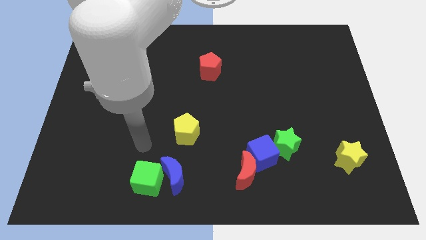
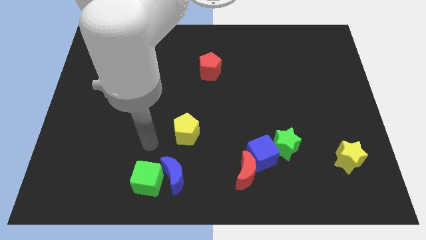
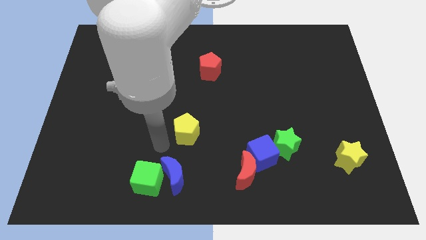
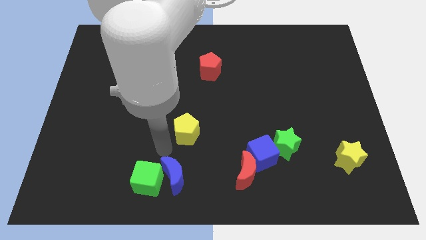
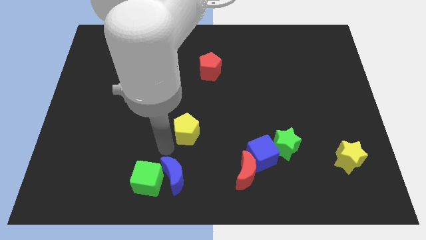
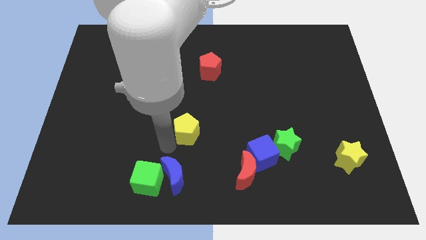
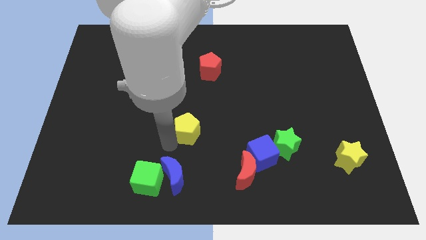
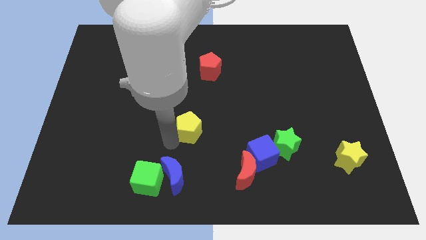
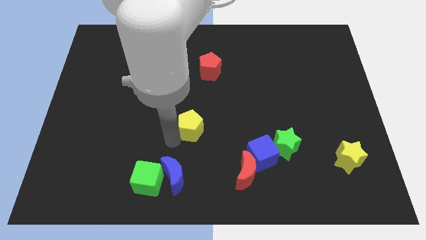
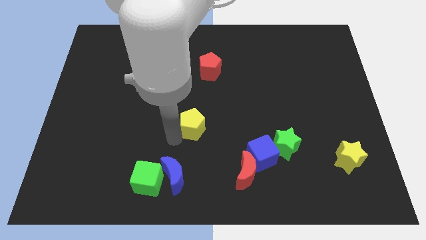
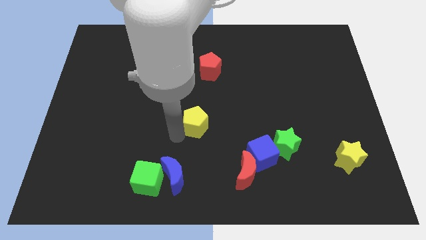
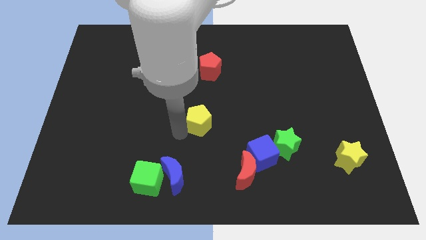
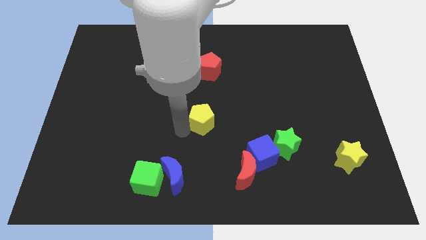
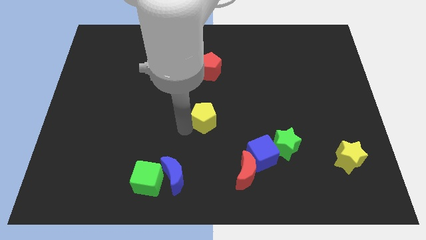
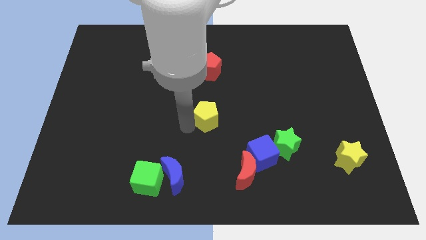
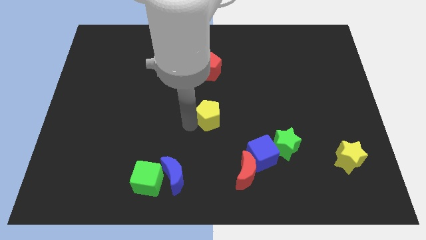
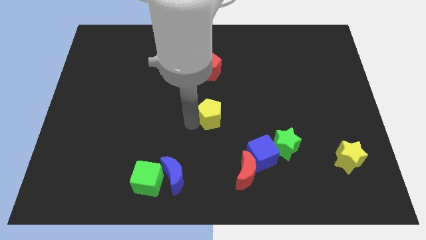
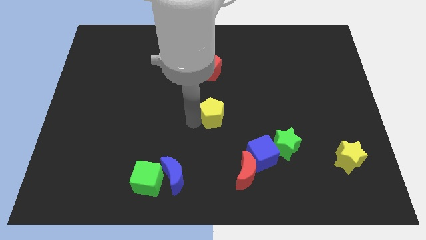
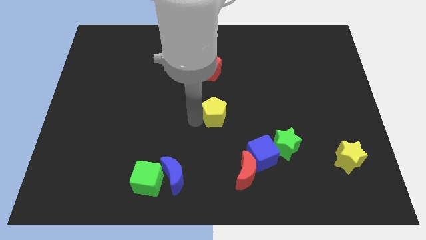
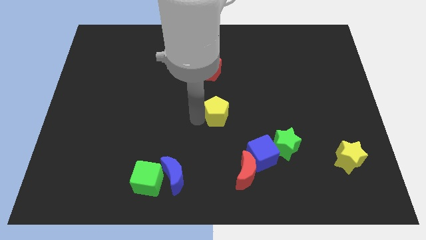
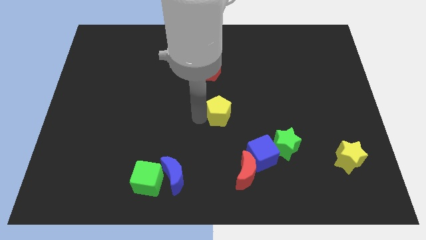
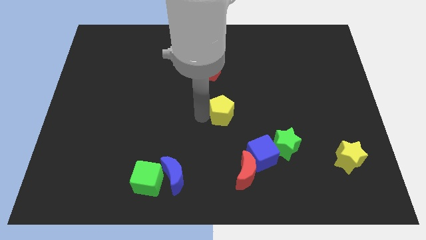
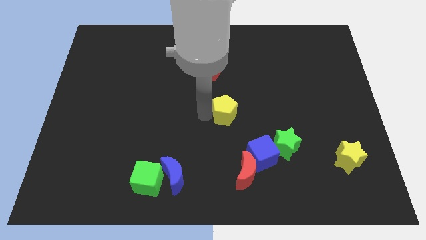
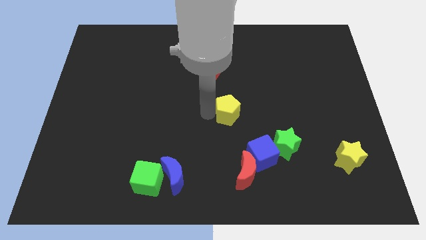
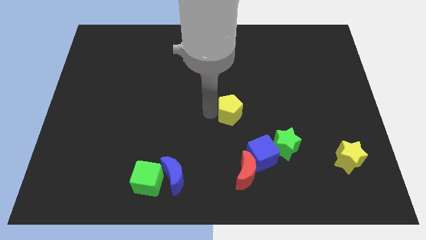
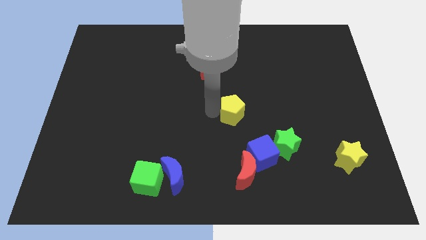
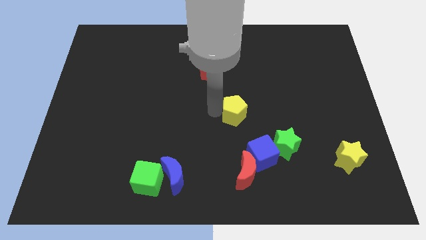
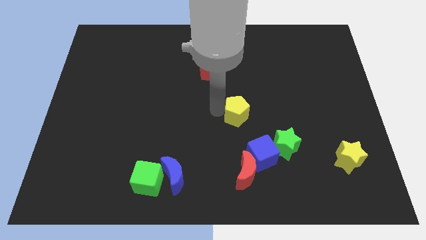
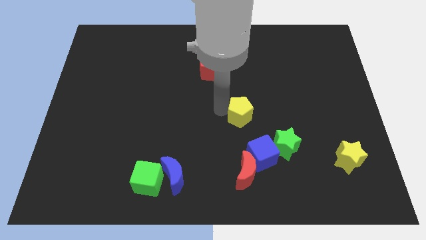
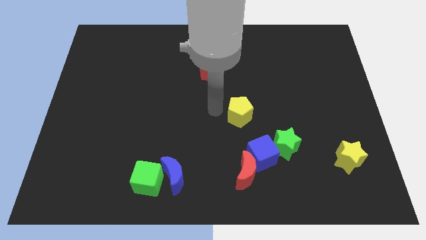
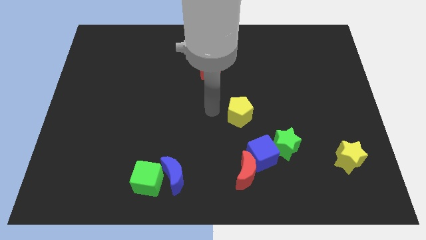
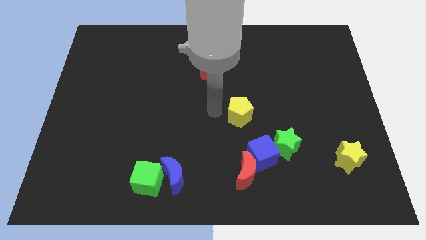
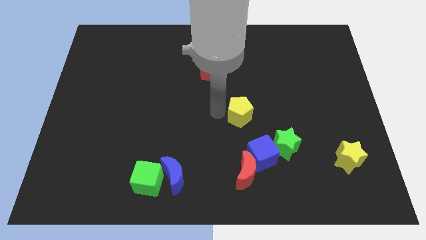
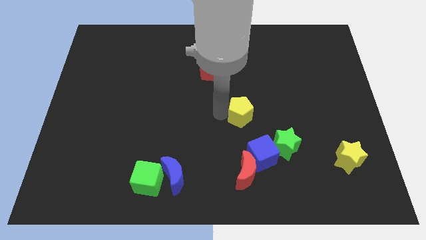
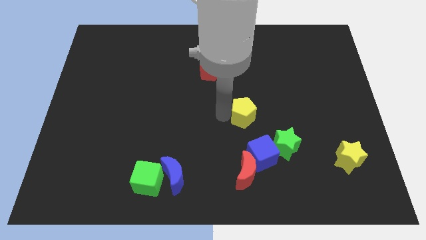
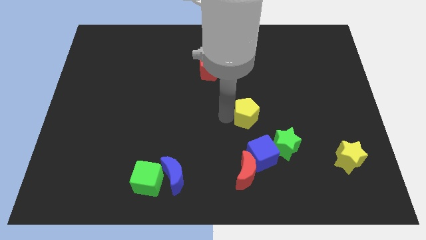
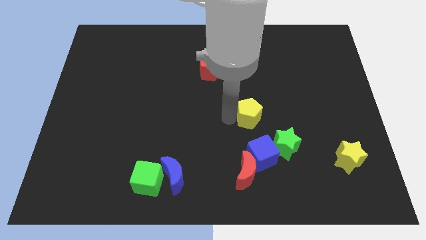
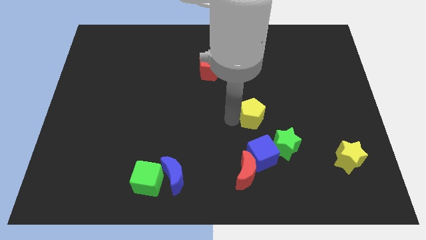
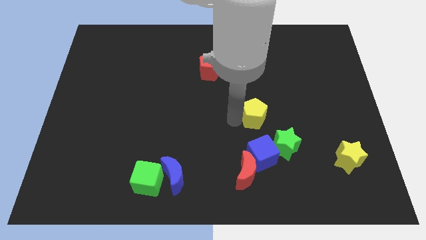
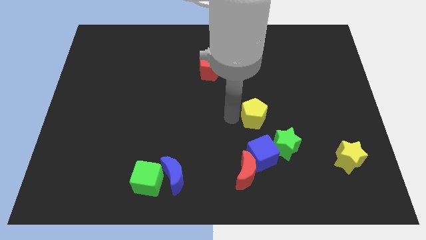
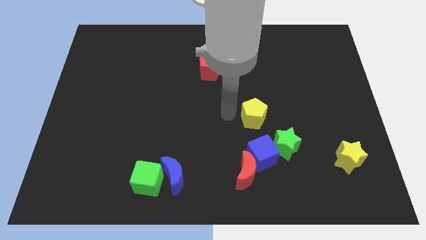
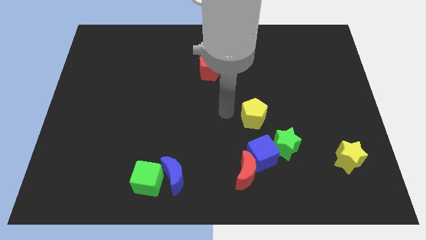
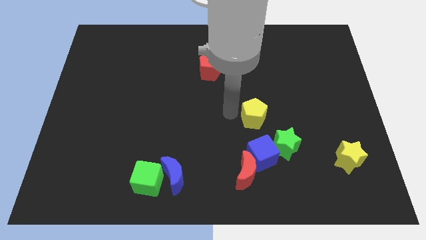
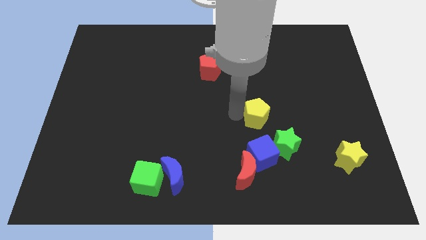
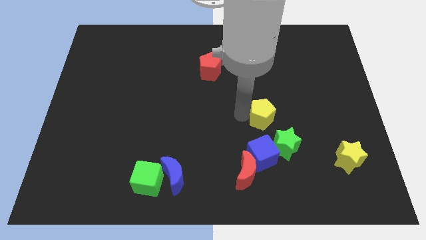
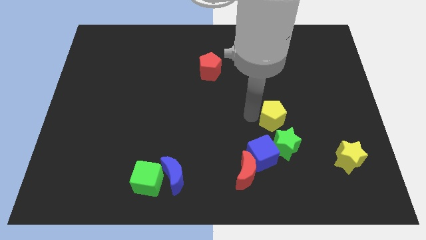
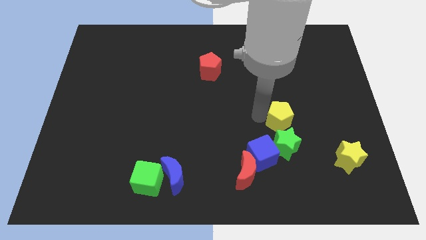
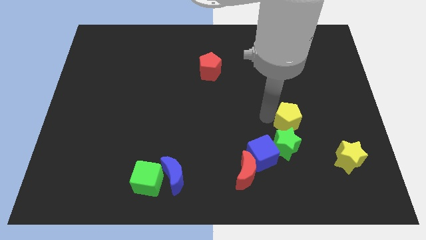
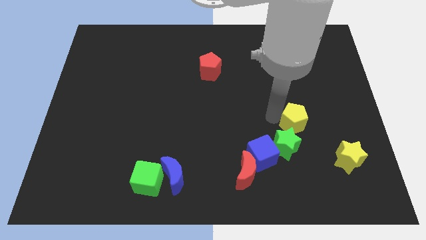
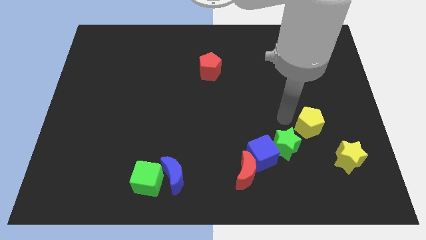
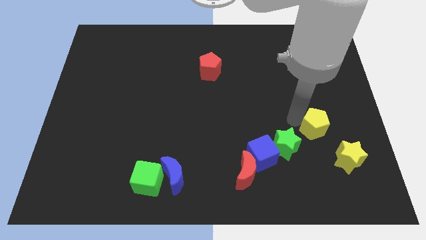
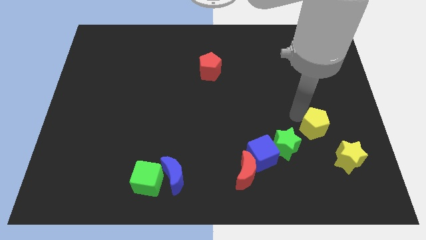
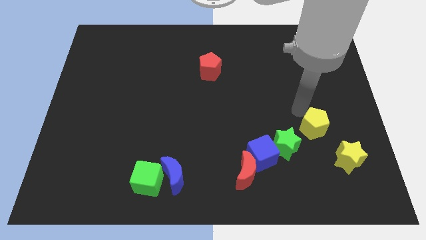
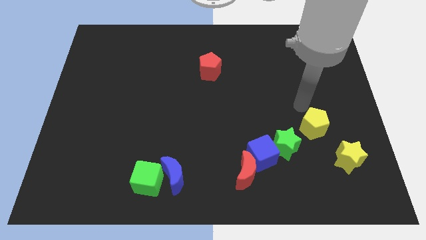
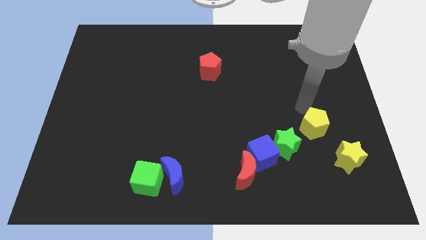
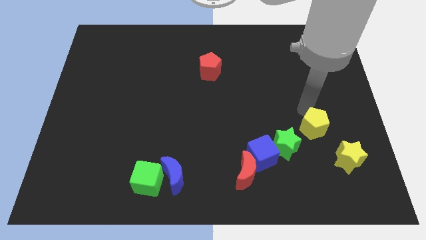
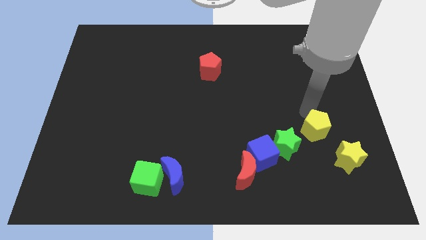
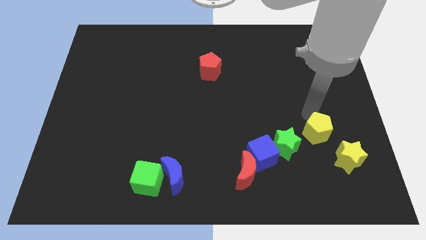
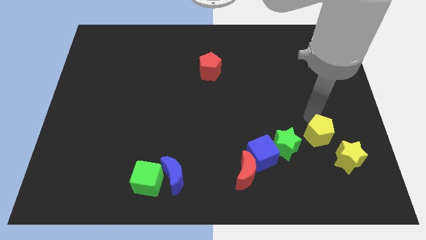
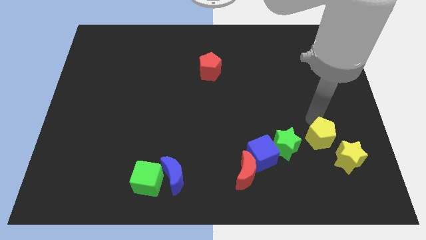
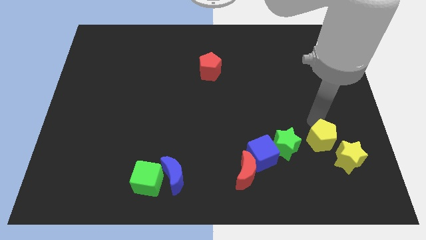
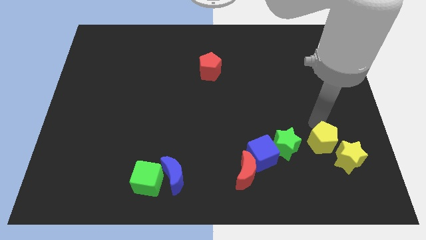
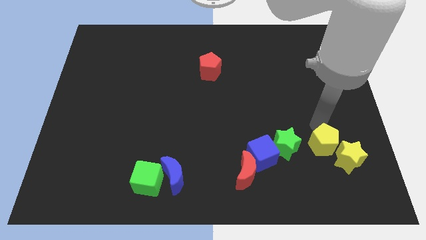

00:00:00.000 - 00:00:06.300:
push the yellow pentagon towards the yellow star

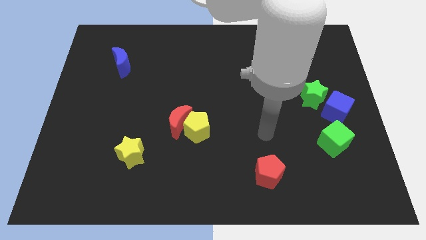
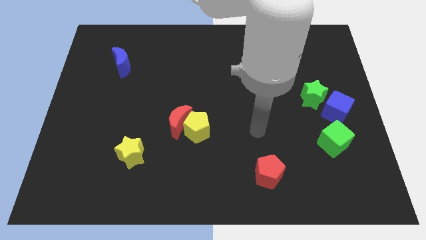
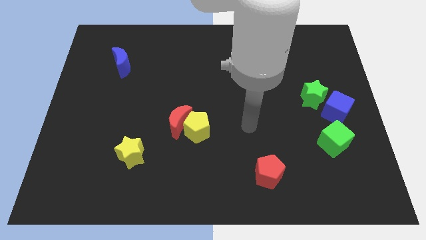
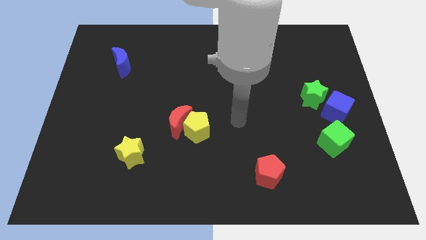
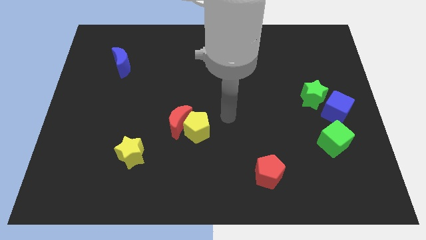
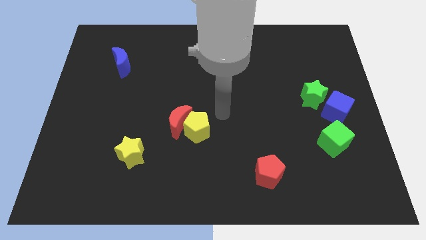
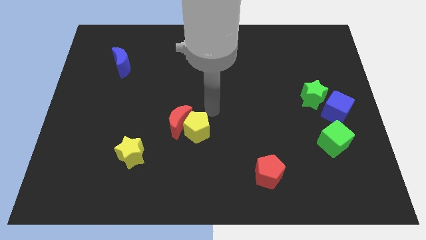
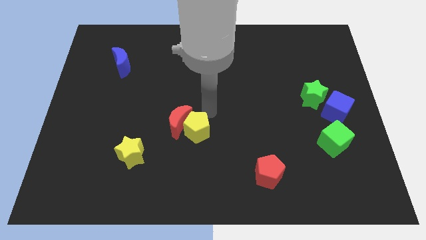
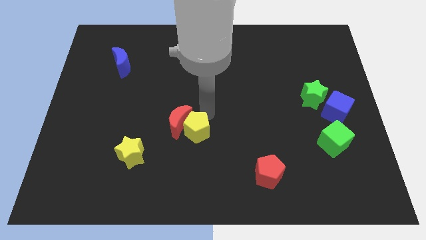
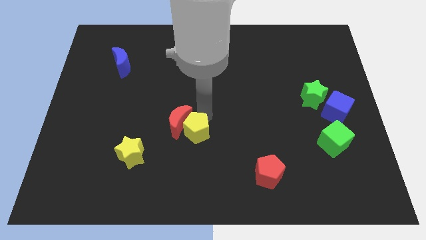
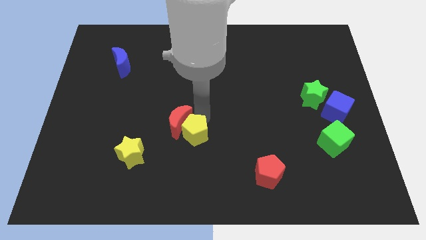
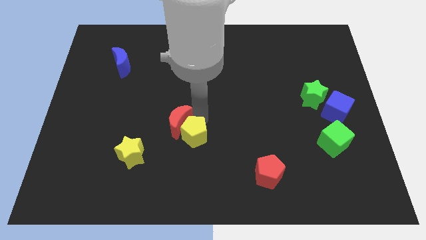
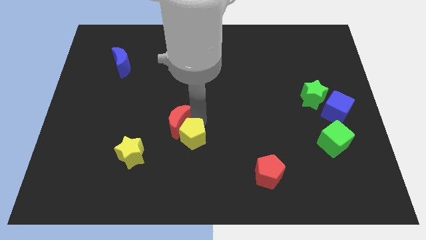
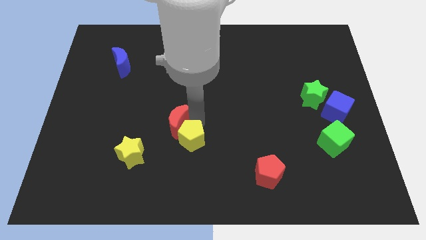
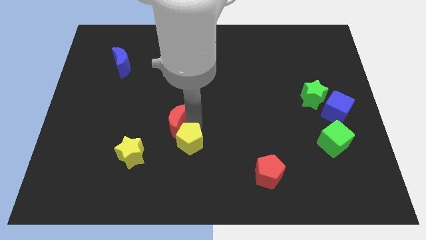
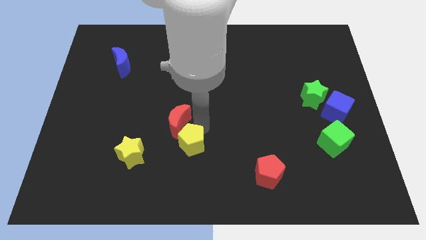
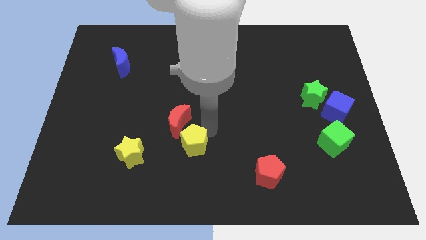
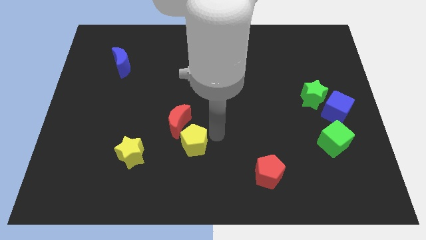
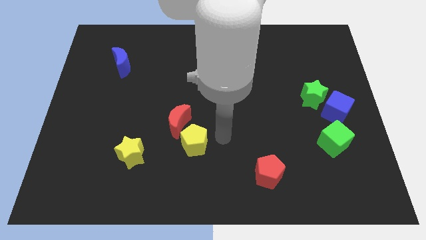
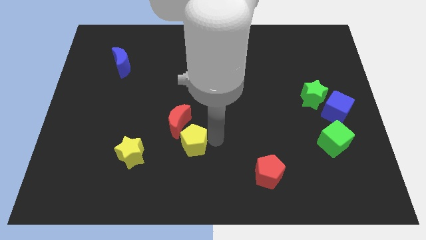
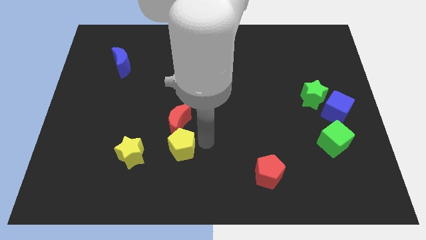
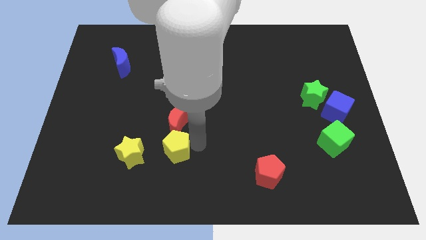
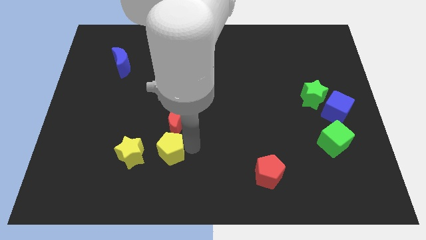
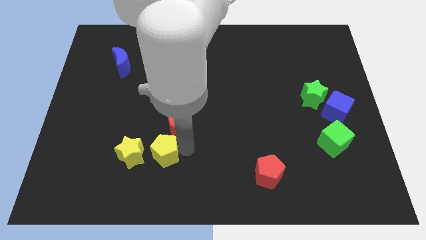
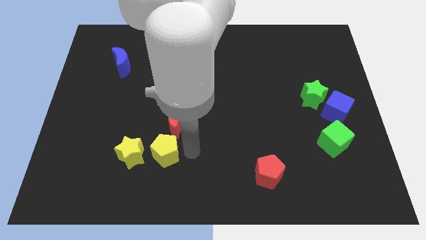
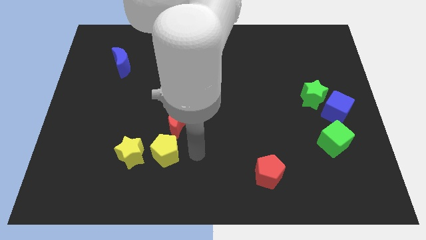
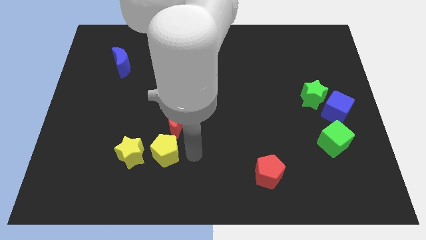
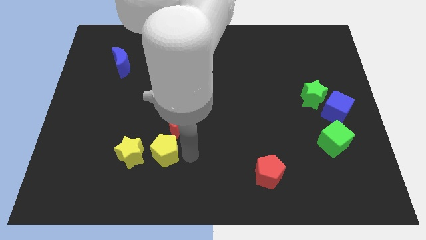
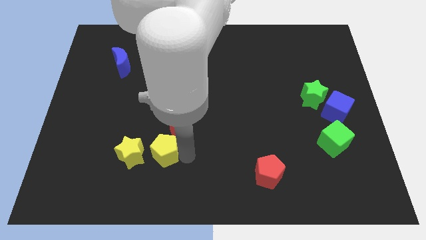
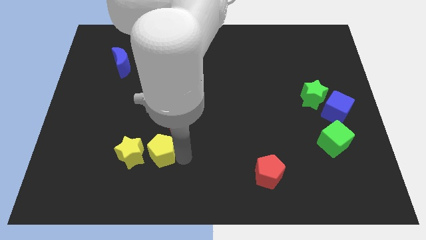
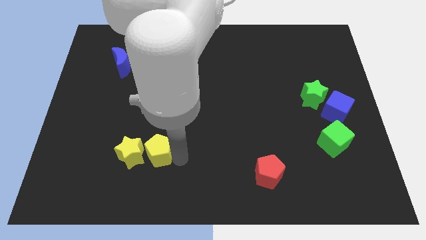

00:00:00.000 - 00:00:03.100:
slide the yellow pentagon next to the yellow star
